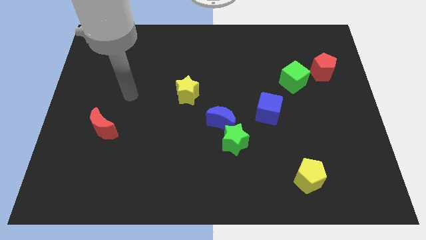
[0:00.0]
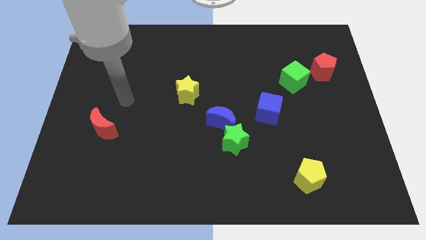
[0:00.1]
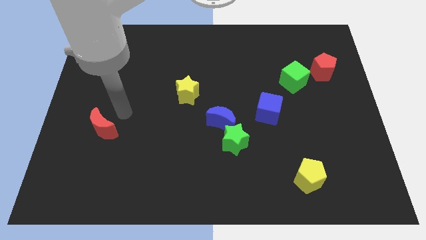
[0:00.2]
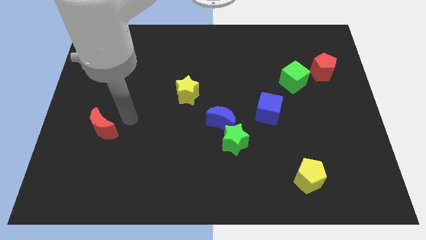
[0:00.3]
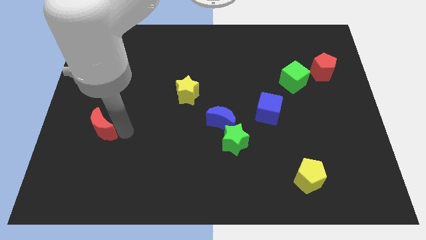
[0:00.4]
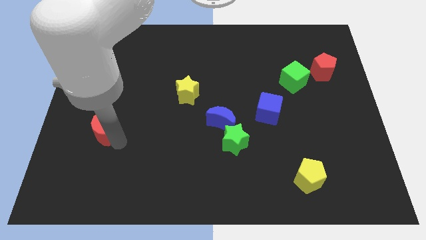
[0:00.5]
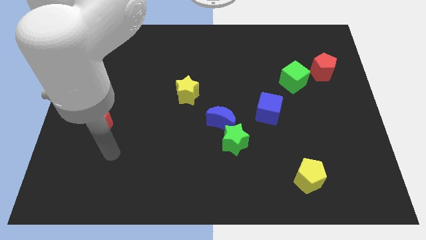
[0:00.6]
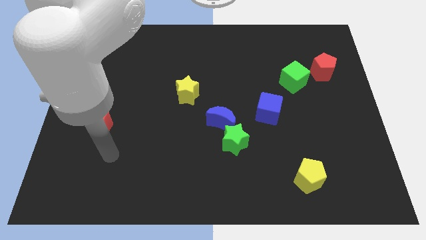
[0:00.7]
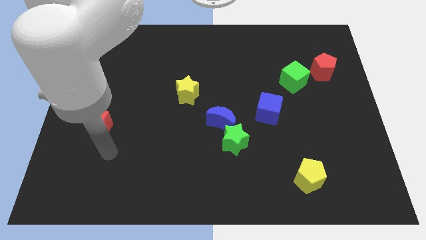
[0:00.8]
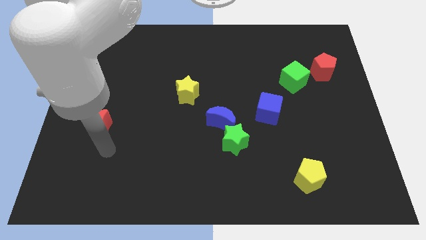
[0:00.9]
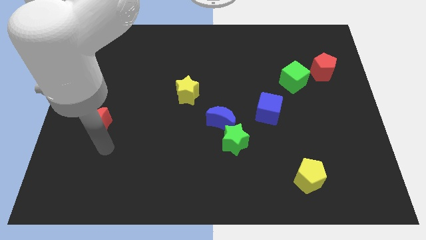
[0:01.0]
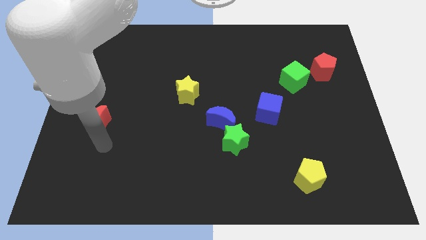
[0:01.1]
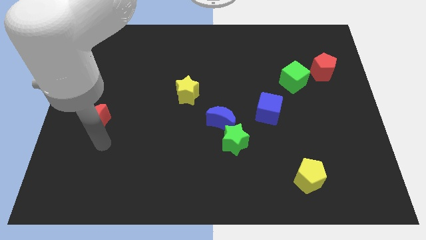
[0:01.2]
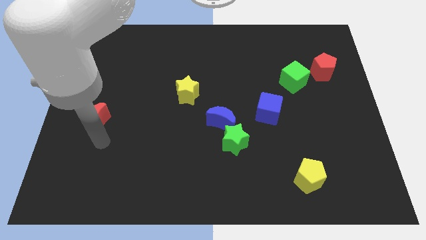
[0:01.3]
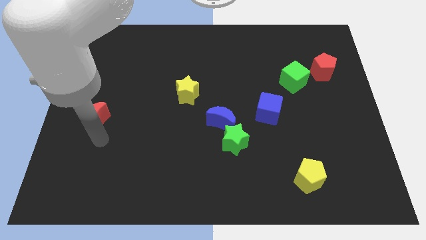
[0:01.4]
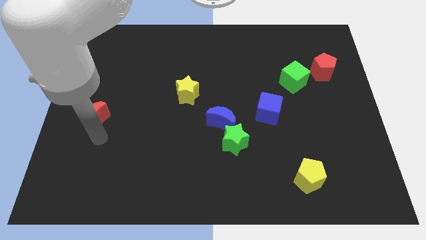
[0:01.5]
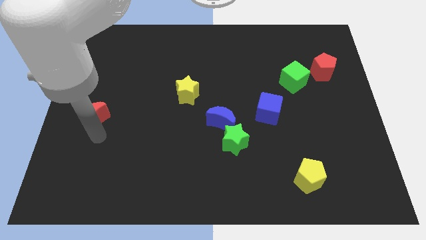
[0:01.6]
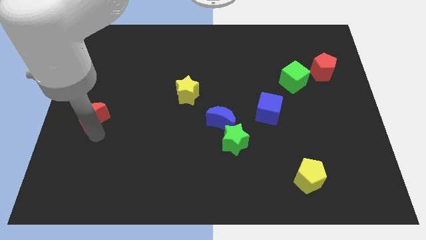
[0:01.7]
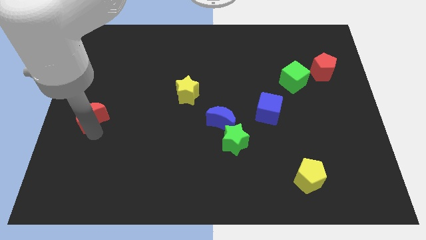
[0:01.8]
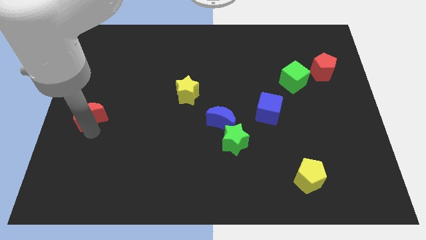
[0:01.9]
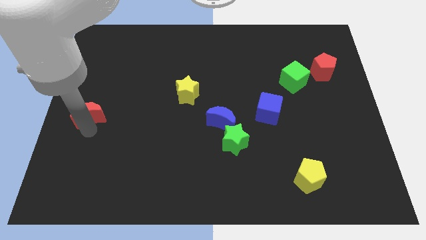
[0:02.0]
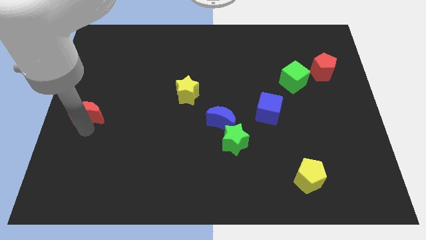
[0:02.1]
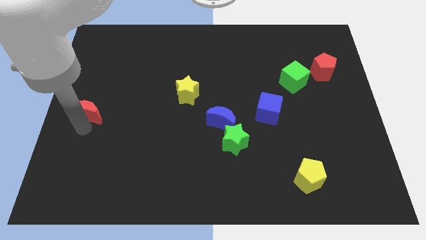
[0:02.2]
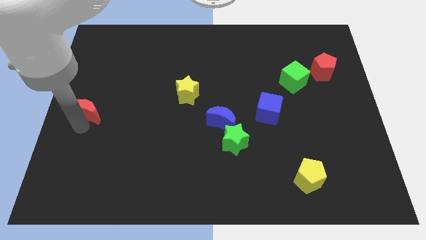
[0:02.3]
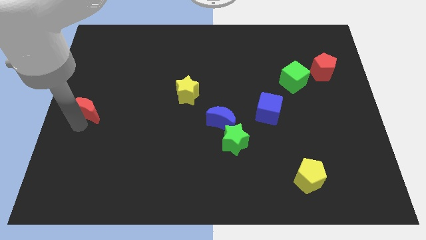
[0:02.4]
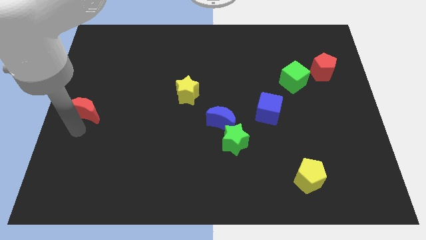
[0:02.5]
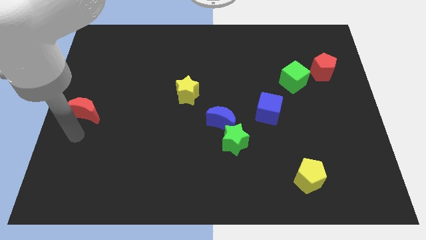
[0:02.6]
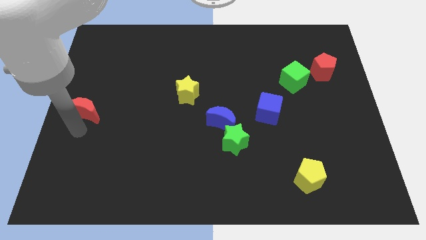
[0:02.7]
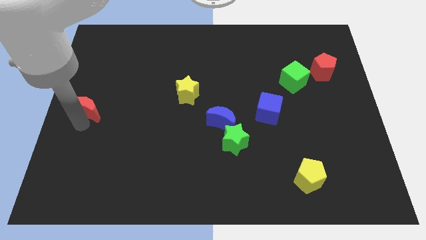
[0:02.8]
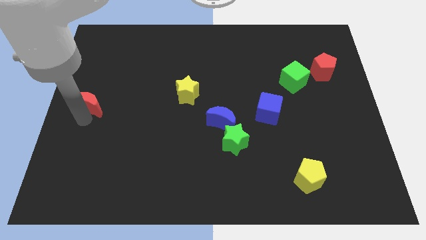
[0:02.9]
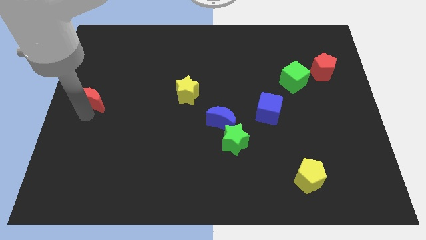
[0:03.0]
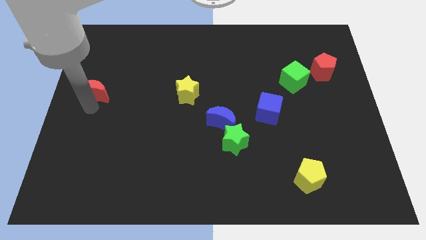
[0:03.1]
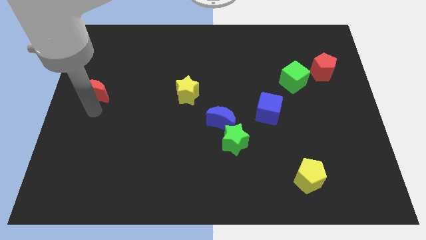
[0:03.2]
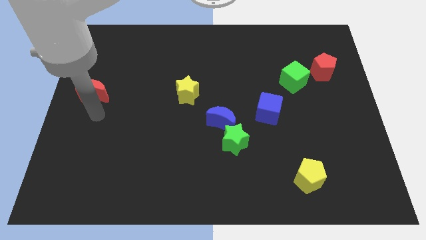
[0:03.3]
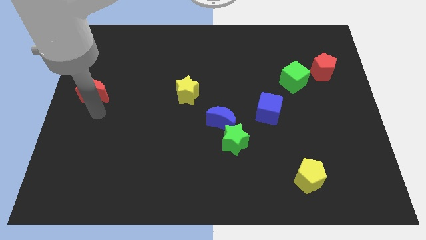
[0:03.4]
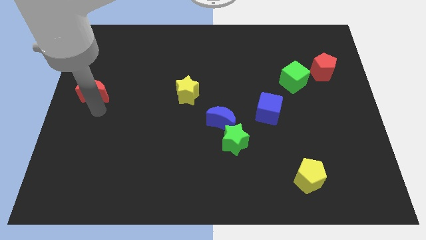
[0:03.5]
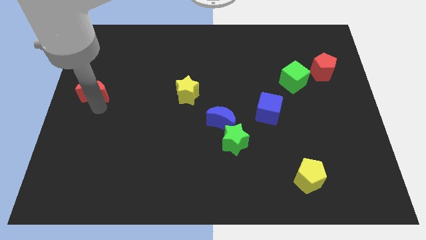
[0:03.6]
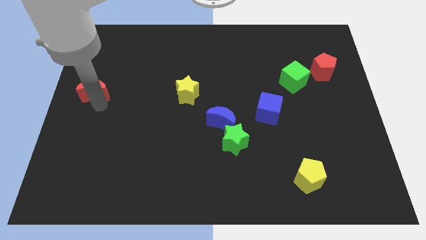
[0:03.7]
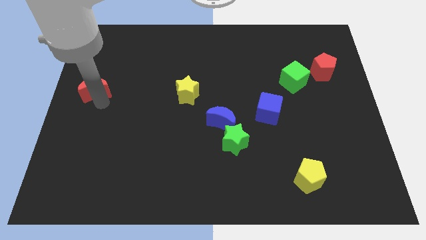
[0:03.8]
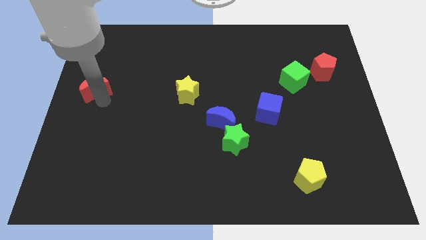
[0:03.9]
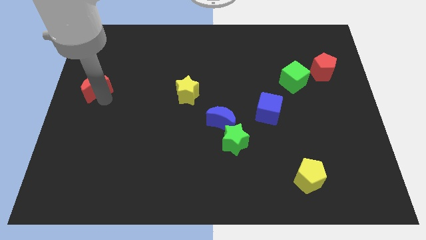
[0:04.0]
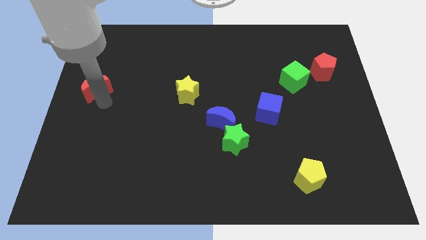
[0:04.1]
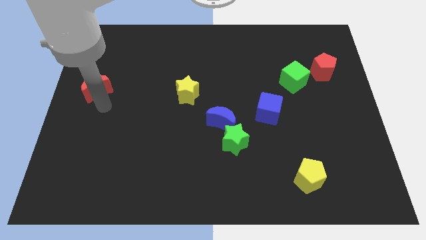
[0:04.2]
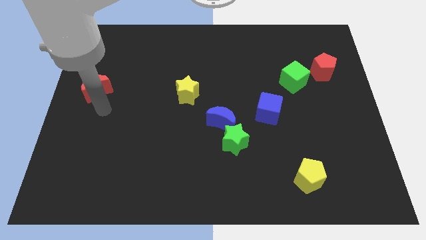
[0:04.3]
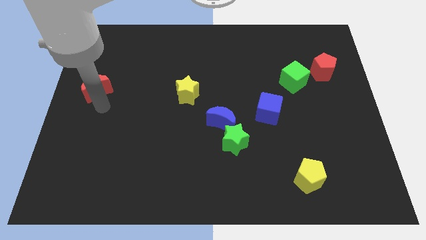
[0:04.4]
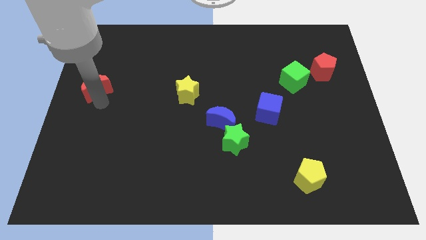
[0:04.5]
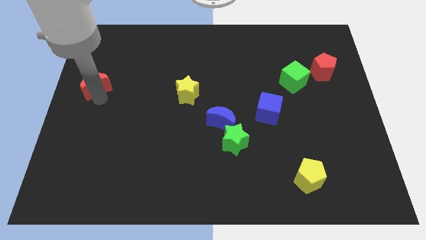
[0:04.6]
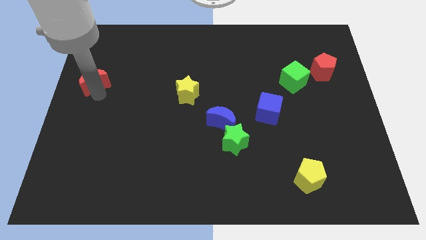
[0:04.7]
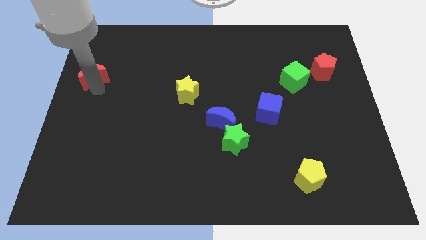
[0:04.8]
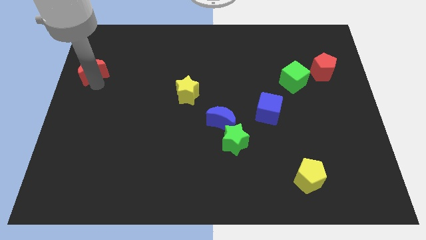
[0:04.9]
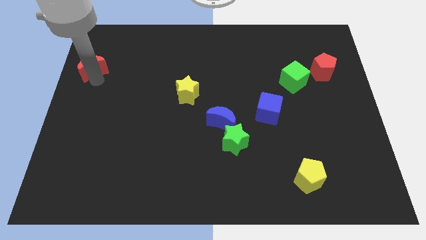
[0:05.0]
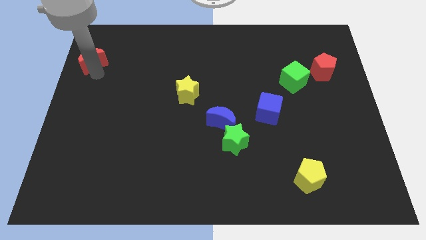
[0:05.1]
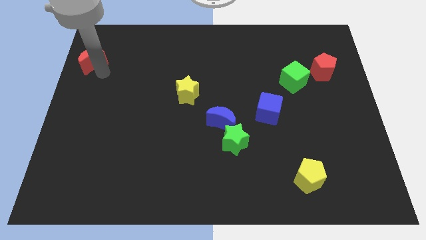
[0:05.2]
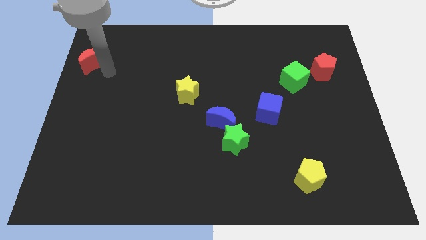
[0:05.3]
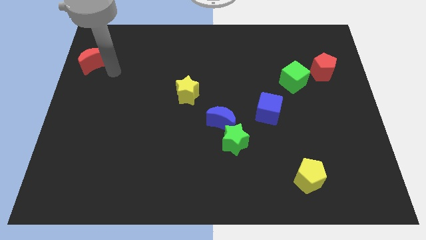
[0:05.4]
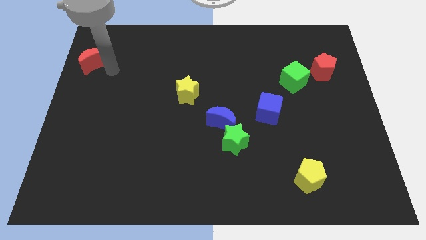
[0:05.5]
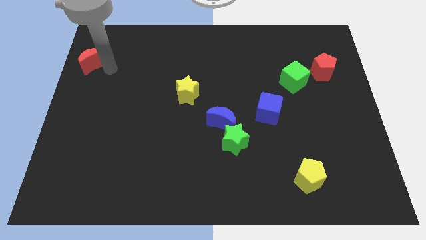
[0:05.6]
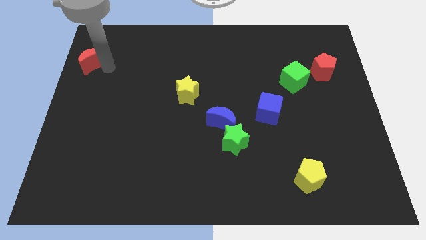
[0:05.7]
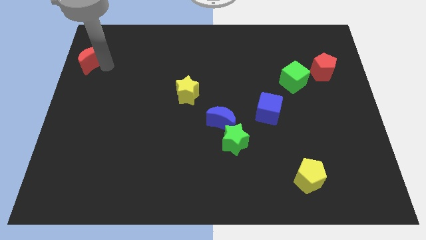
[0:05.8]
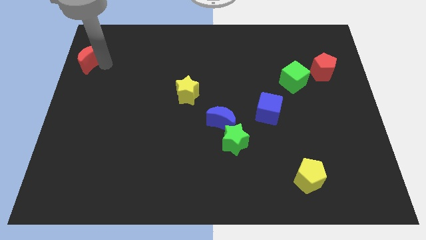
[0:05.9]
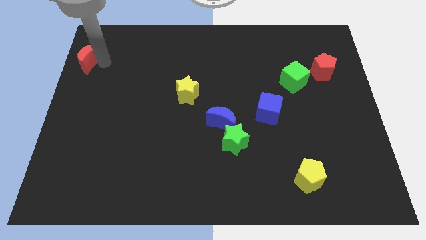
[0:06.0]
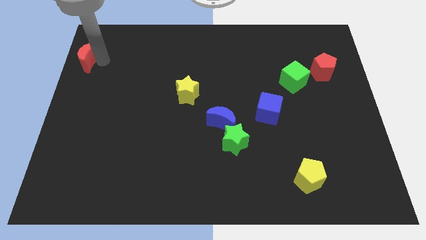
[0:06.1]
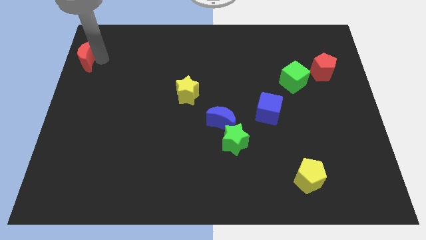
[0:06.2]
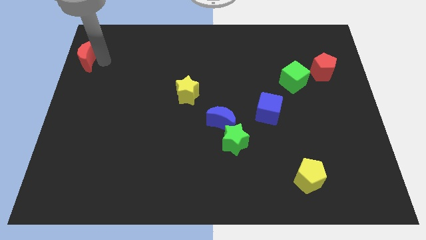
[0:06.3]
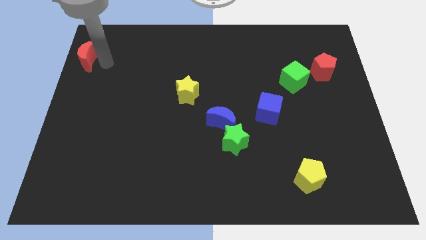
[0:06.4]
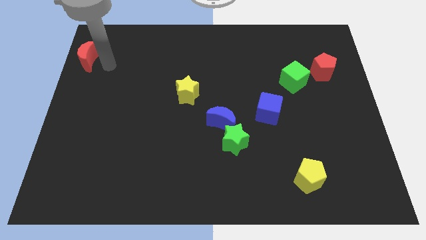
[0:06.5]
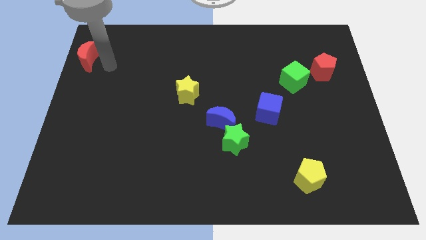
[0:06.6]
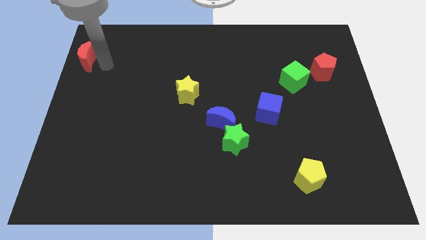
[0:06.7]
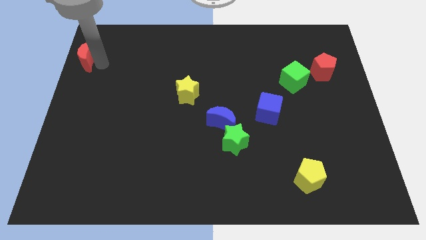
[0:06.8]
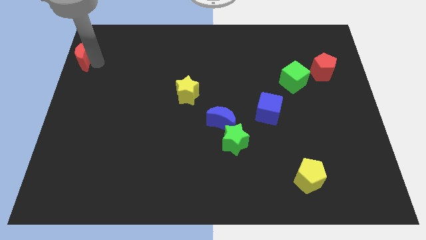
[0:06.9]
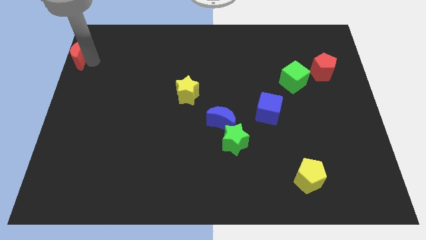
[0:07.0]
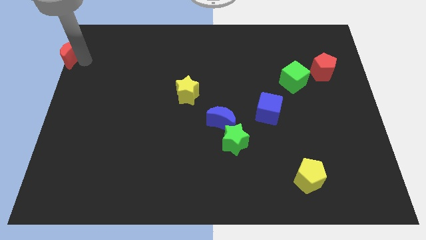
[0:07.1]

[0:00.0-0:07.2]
move the red moon to the top left of the board

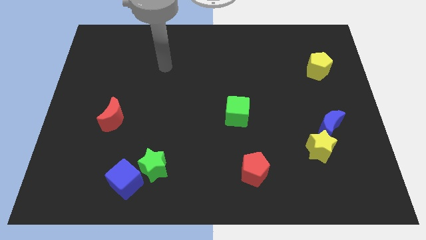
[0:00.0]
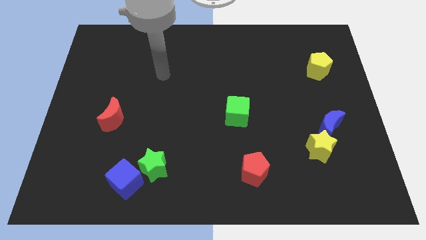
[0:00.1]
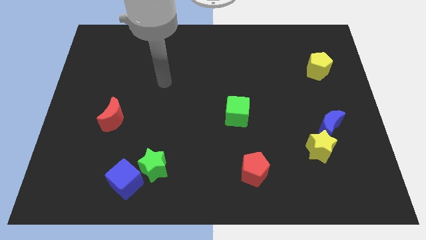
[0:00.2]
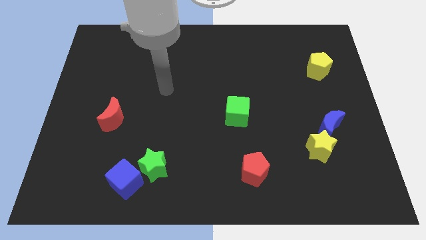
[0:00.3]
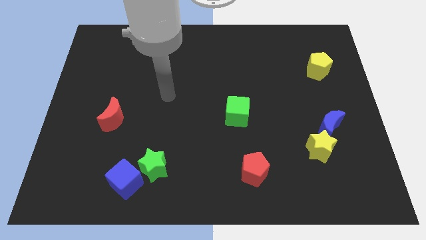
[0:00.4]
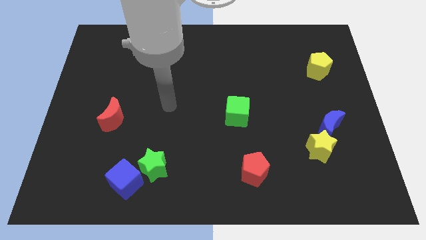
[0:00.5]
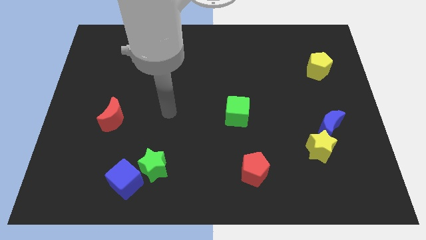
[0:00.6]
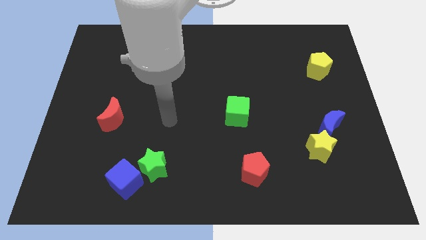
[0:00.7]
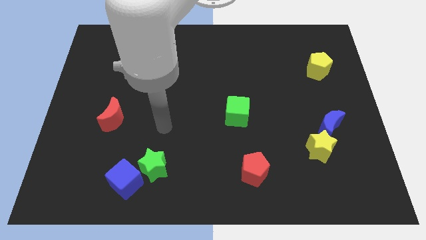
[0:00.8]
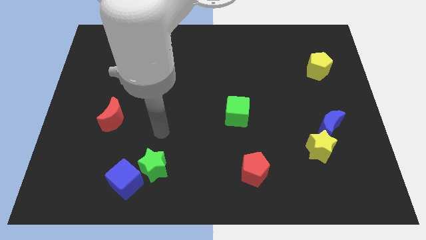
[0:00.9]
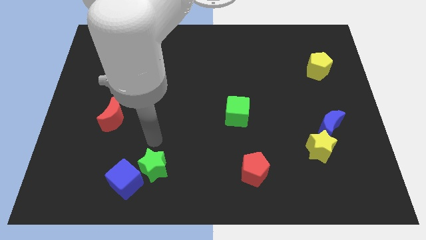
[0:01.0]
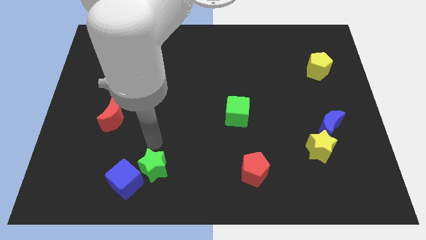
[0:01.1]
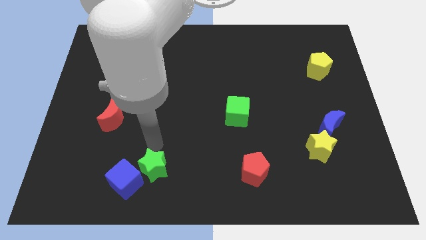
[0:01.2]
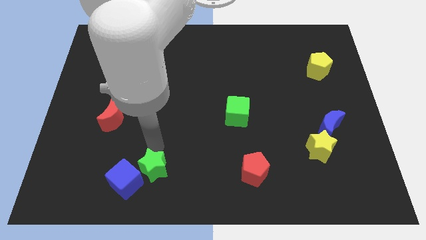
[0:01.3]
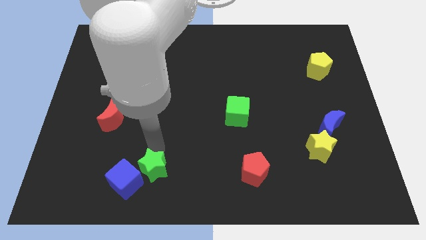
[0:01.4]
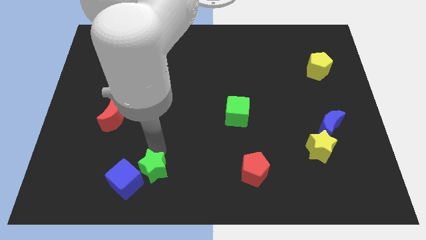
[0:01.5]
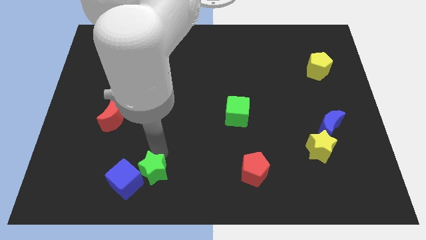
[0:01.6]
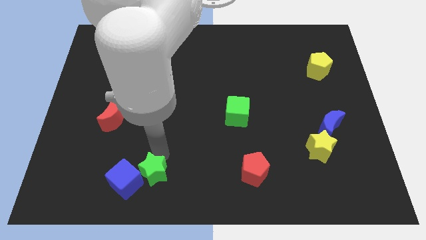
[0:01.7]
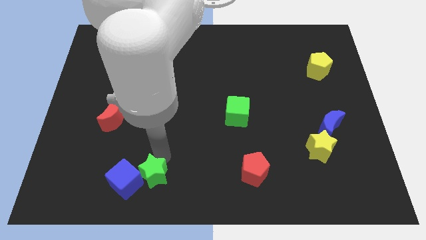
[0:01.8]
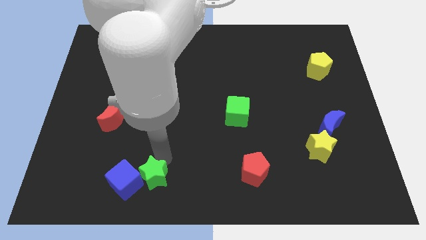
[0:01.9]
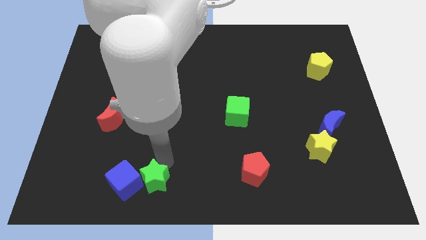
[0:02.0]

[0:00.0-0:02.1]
slide the green star to the bottom
